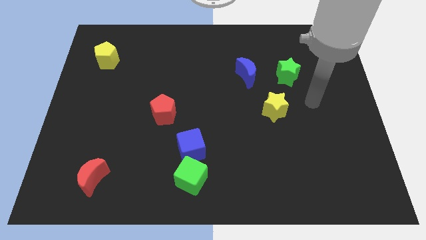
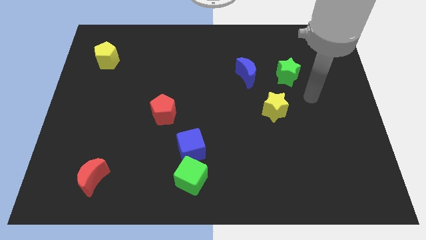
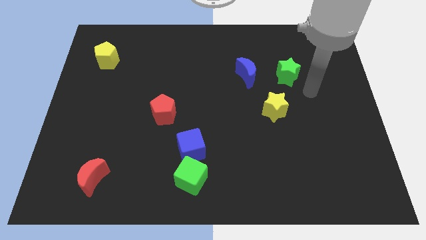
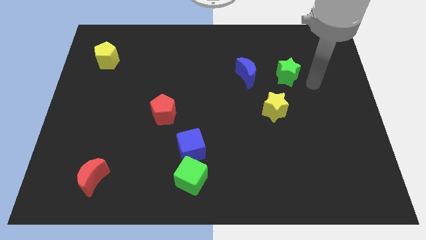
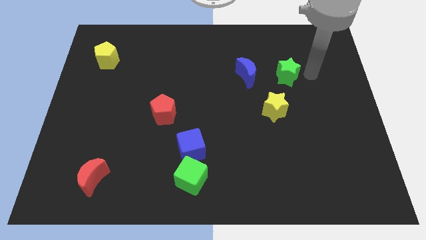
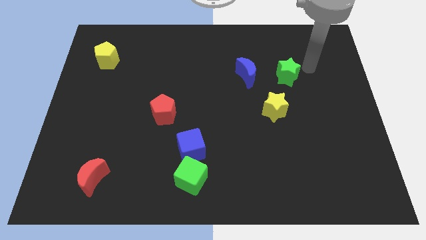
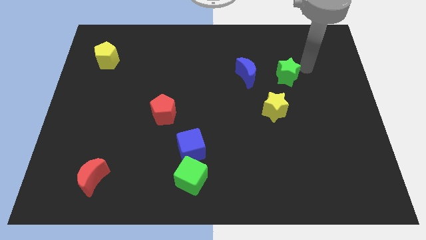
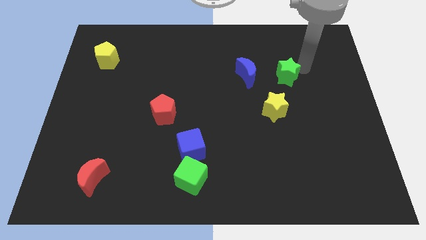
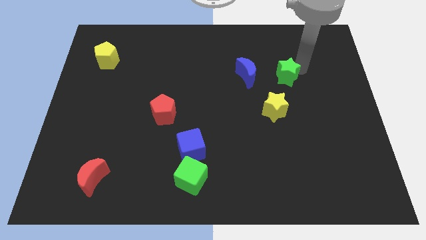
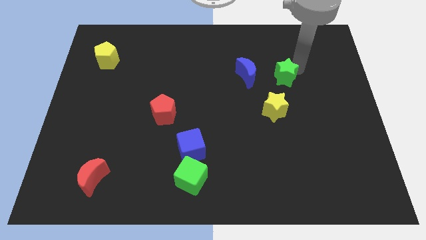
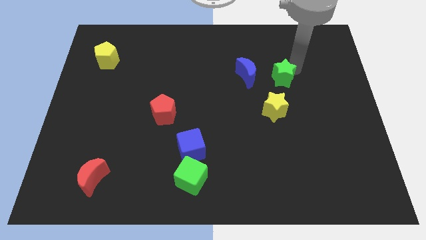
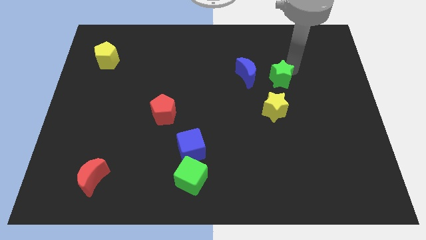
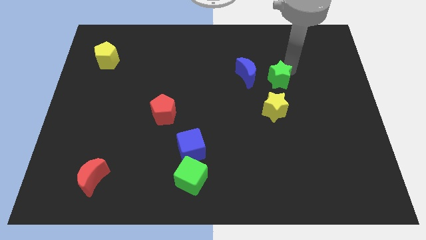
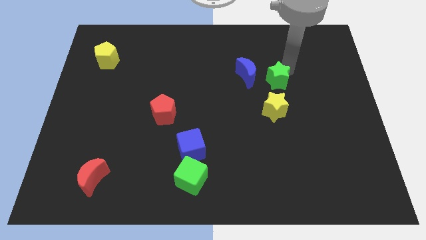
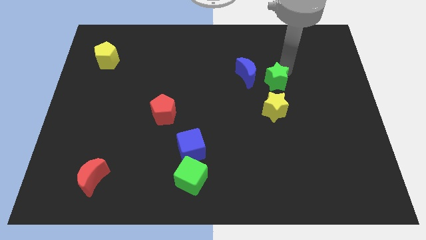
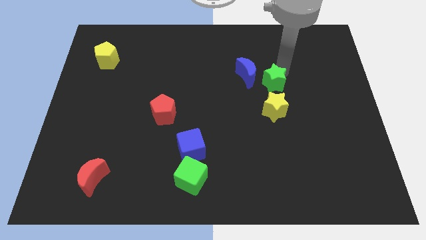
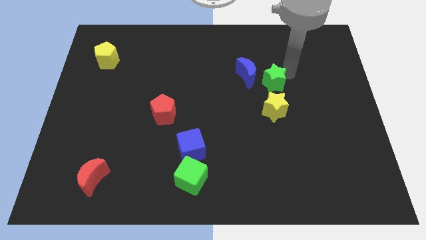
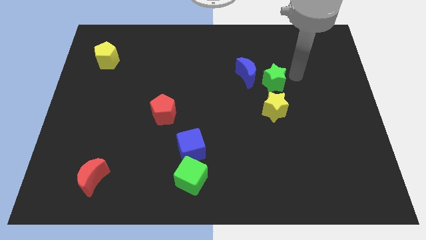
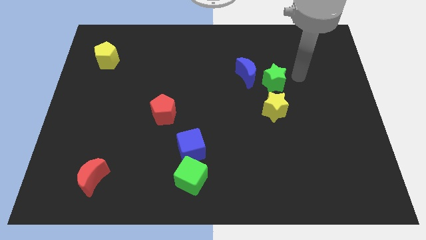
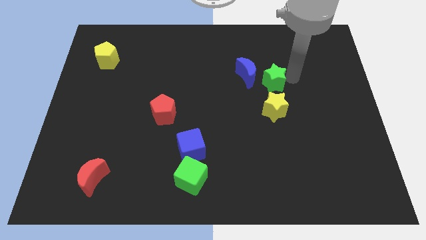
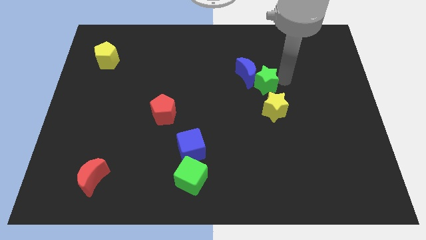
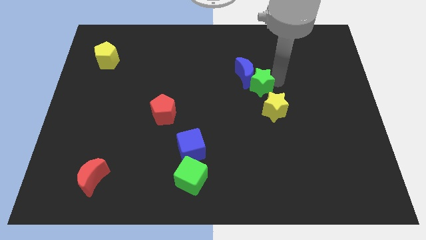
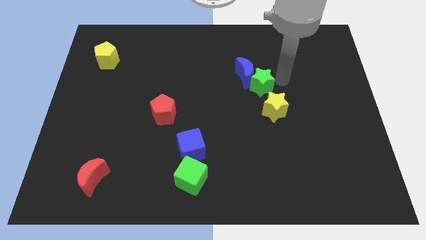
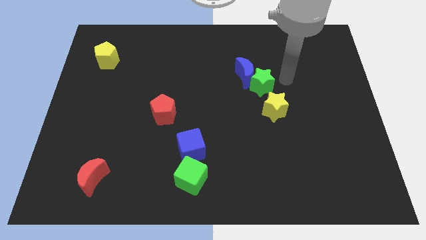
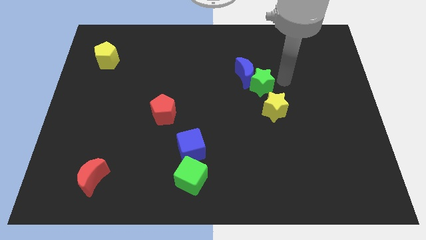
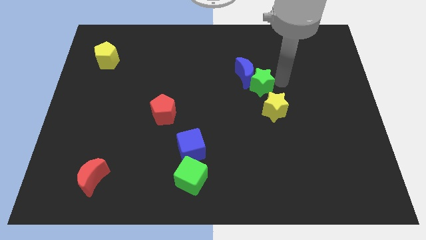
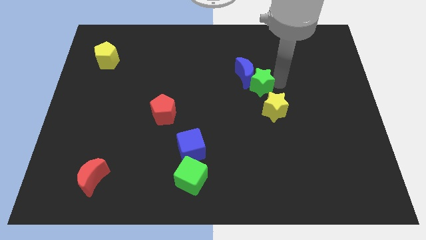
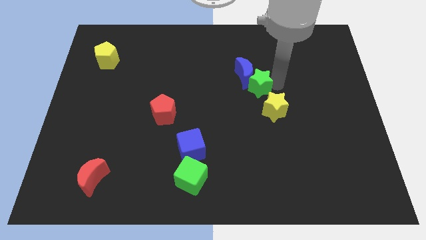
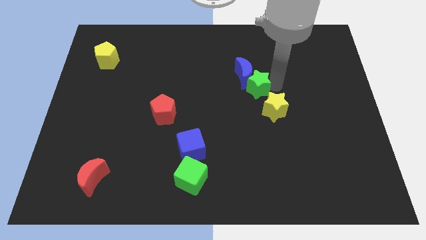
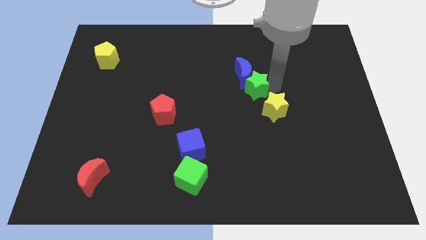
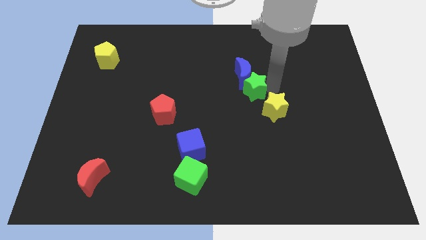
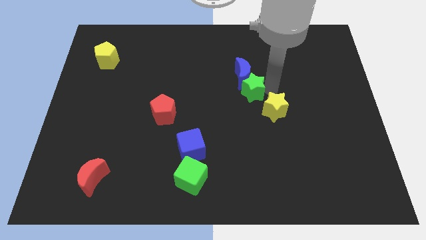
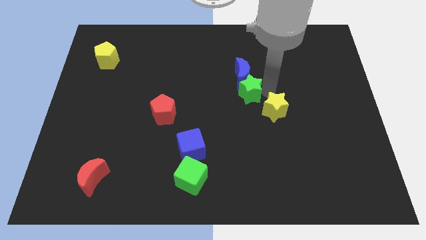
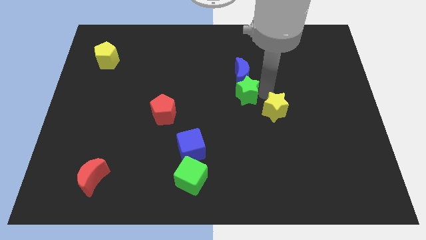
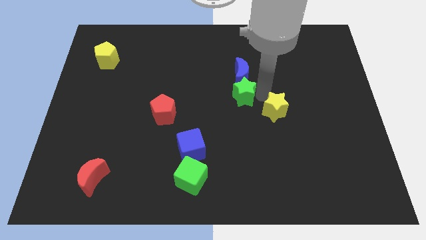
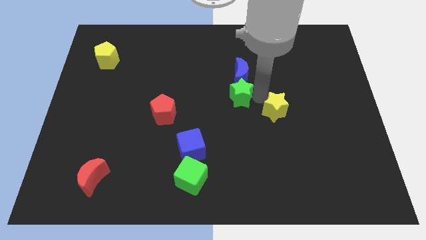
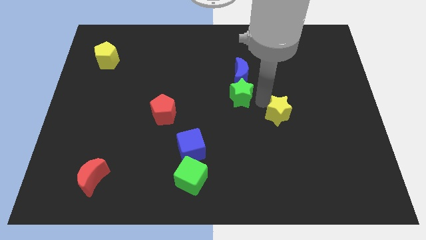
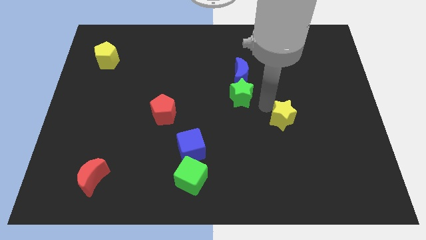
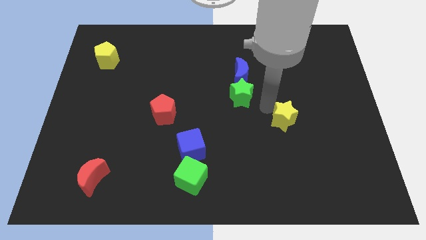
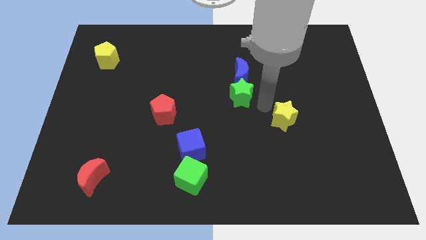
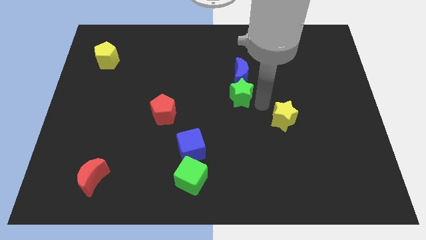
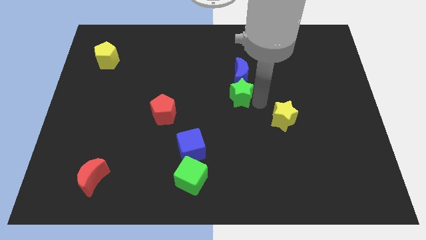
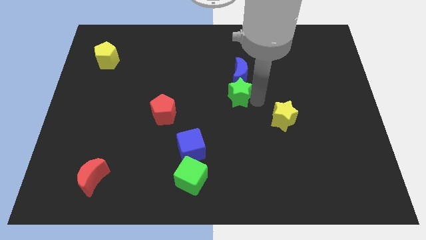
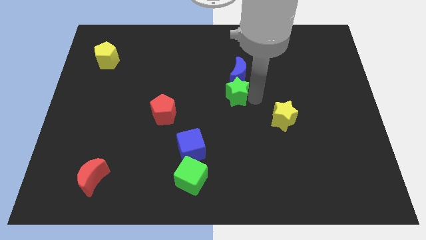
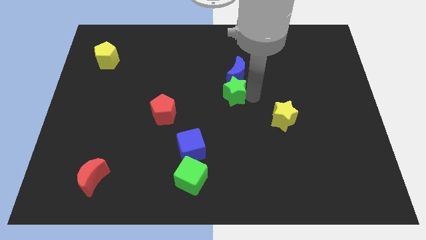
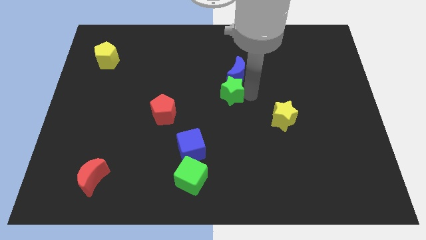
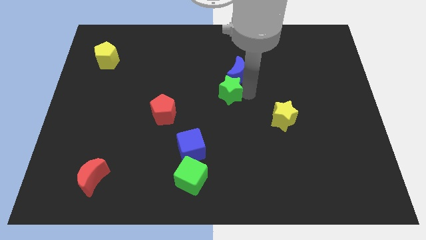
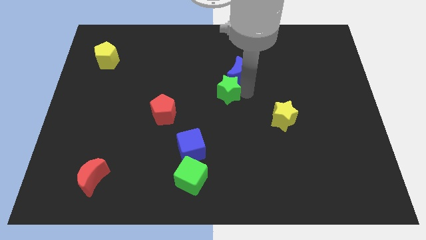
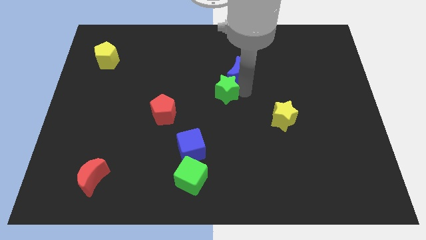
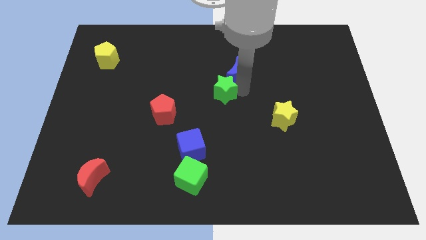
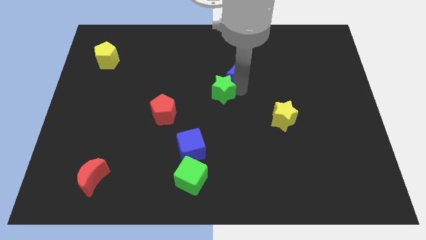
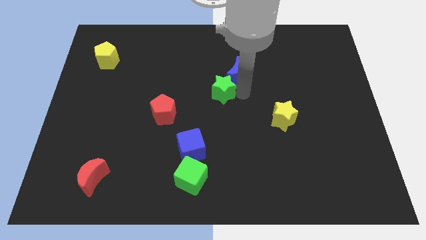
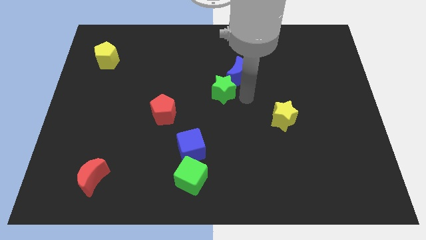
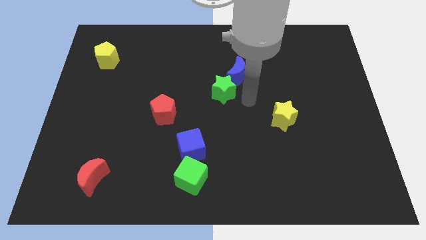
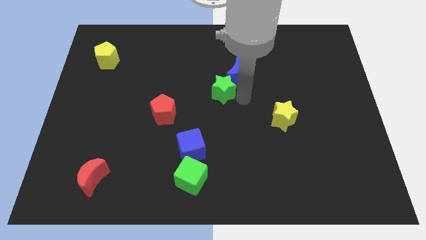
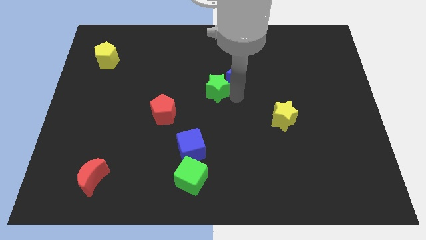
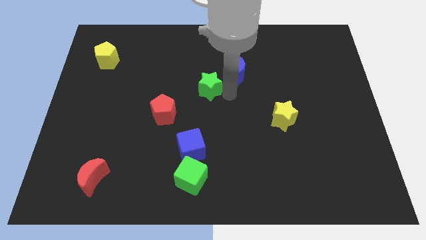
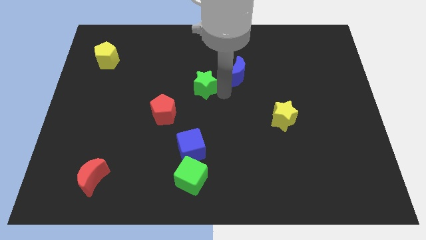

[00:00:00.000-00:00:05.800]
push the green star to the left

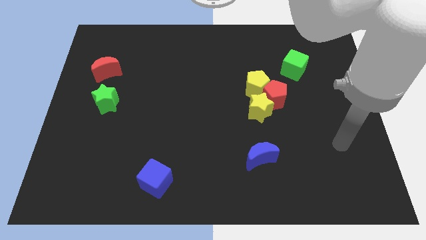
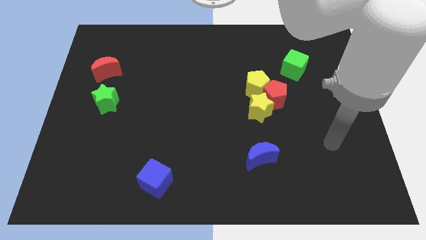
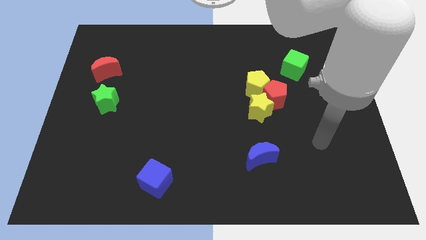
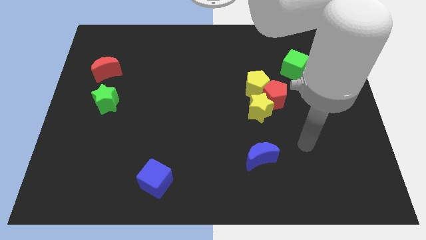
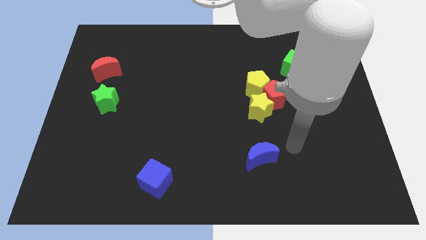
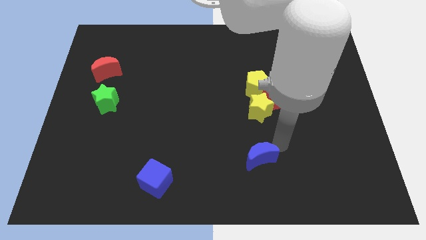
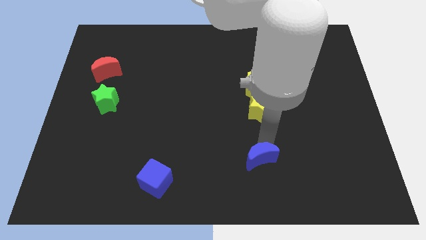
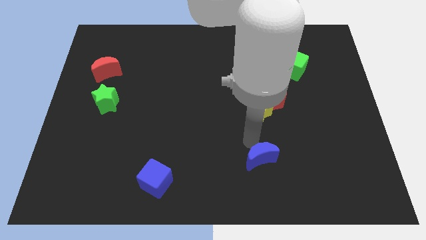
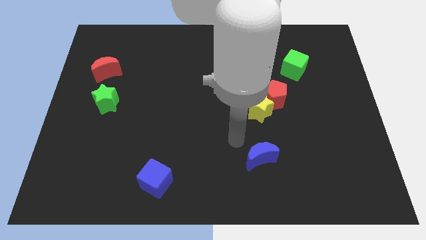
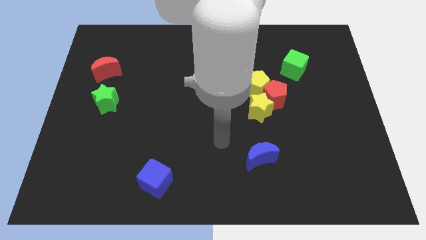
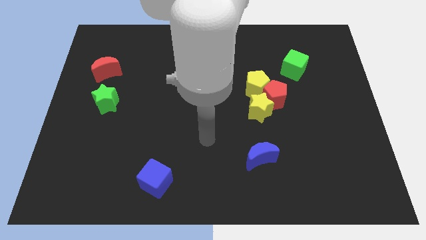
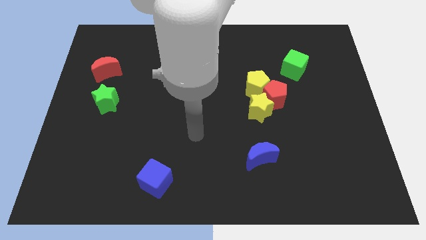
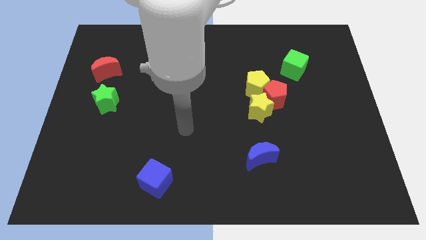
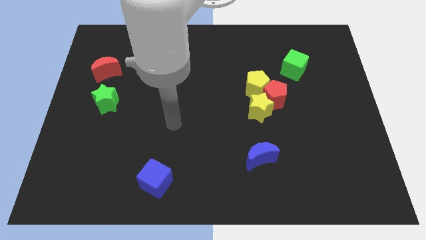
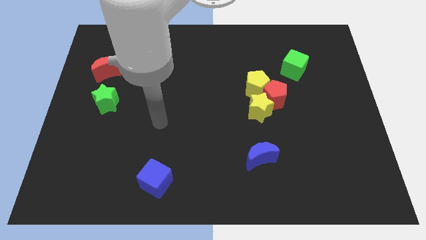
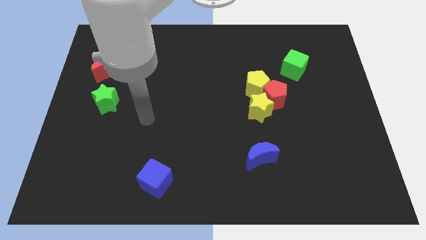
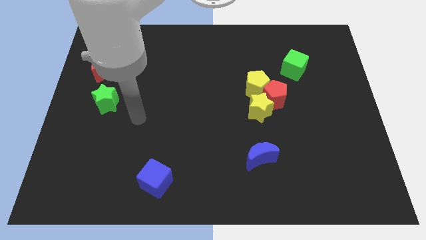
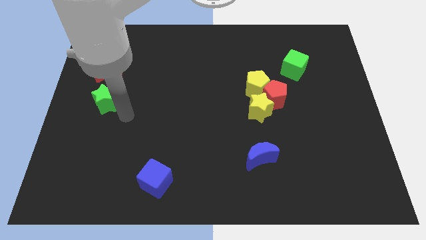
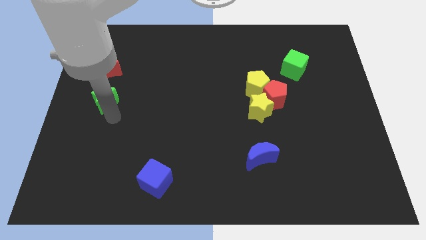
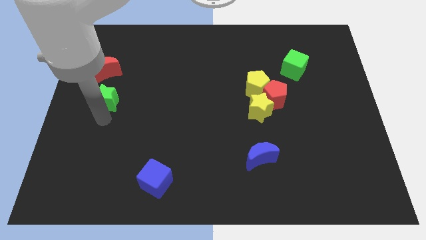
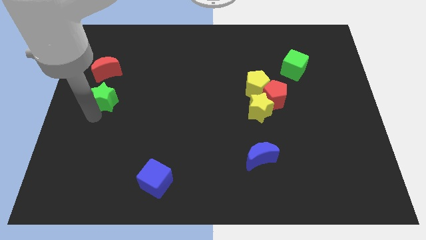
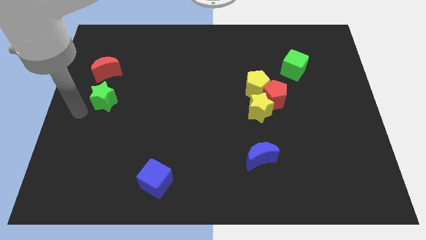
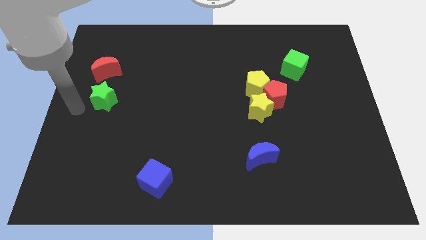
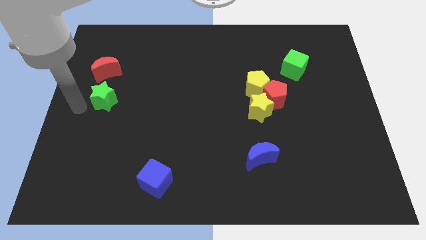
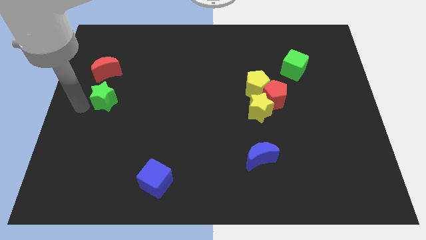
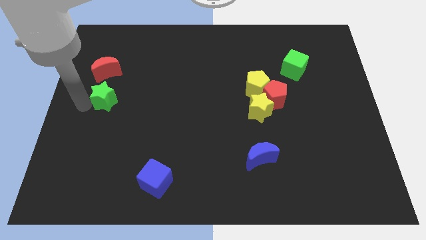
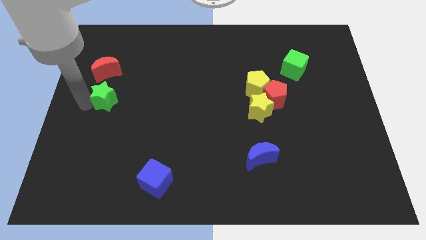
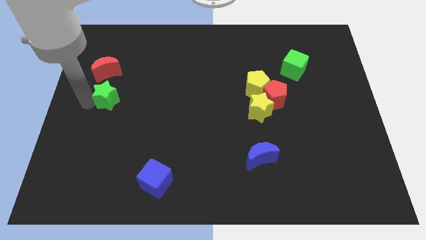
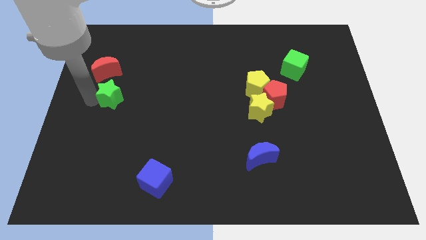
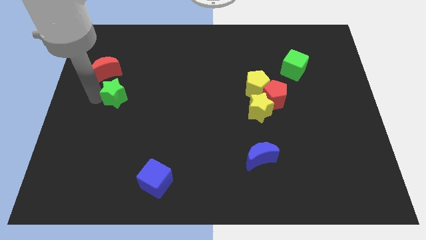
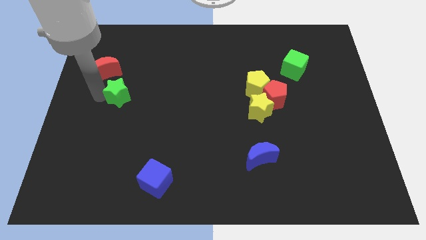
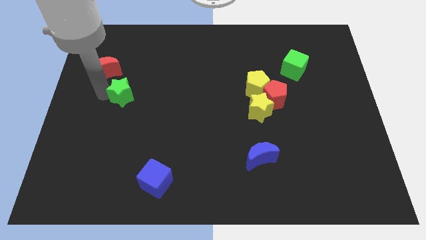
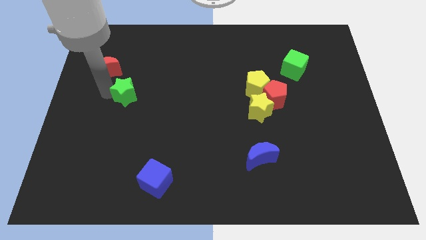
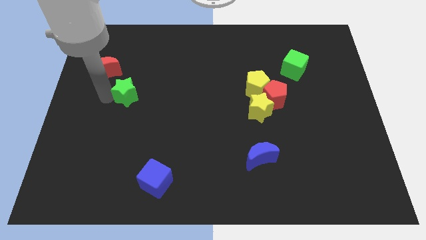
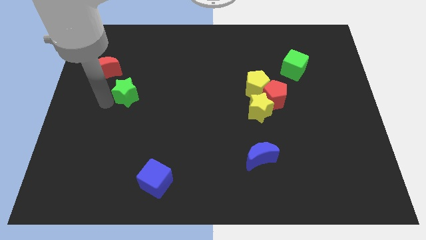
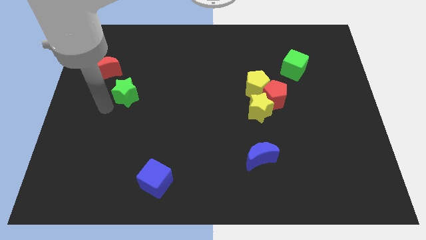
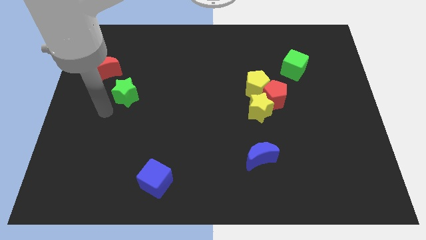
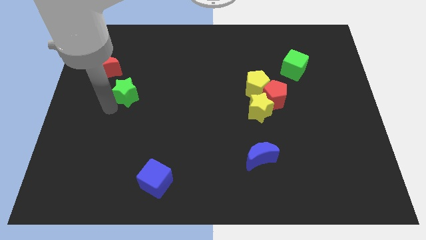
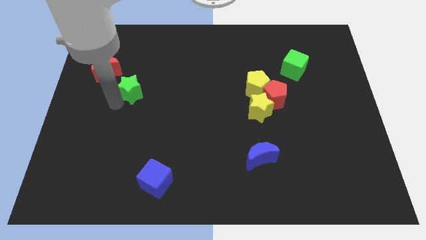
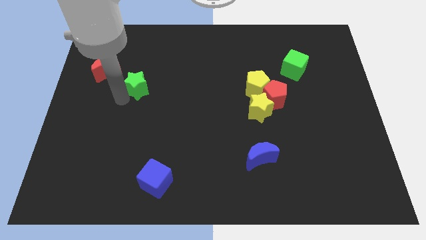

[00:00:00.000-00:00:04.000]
move the green star a little upwards and right diagonally
